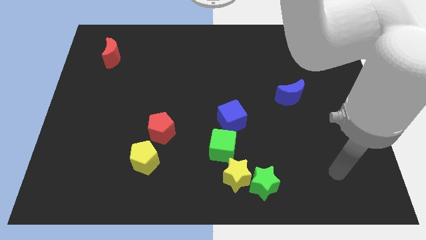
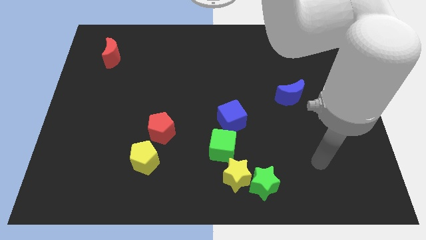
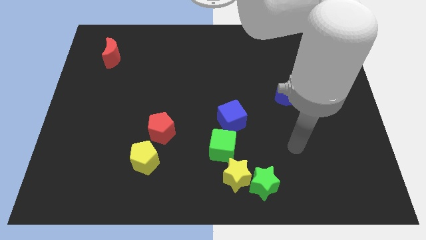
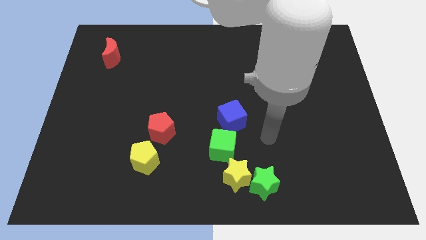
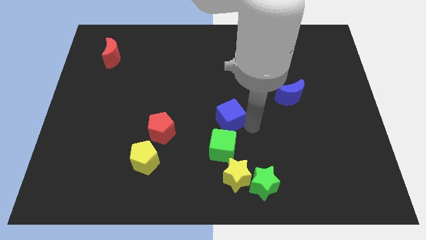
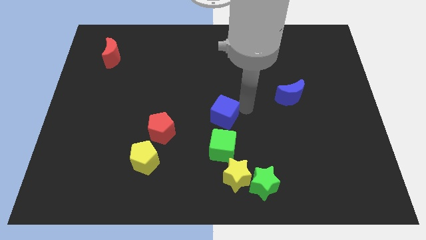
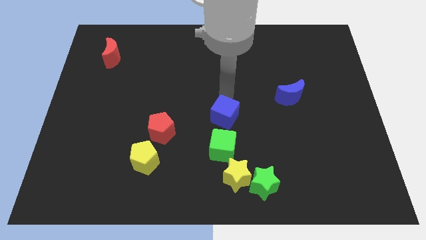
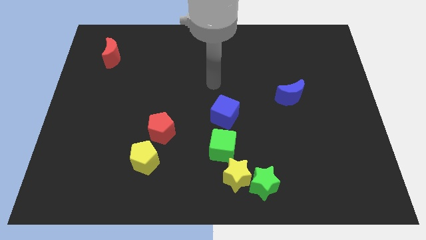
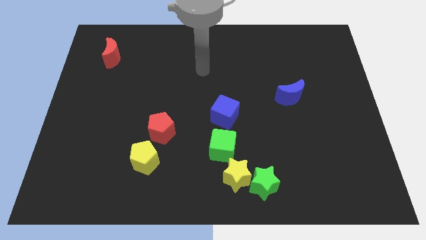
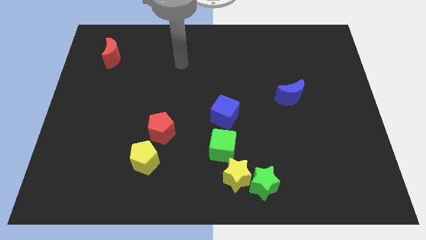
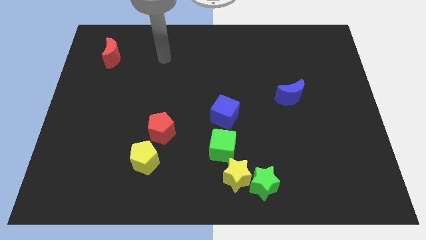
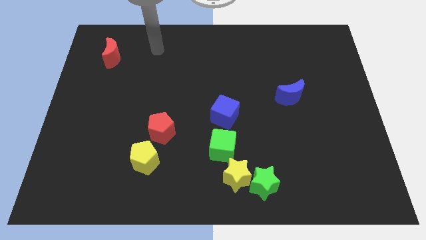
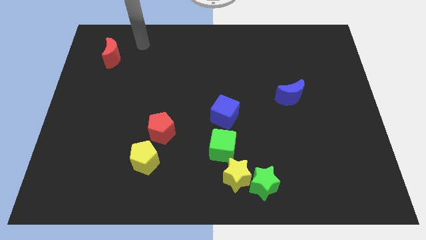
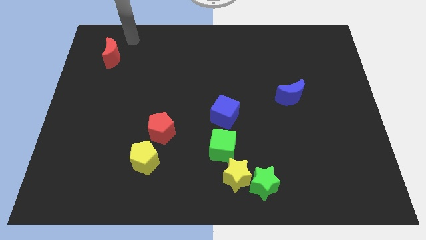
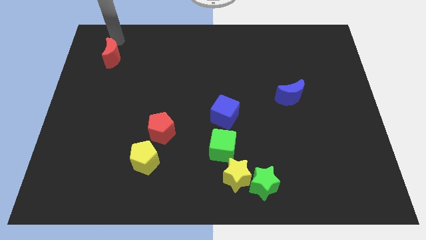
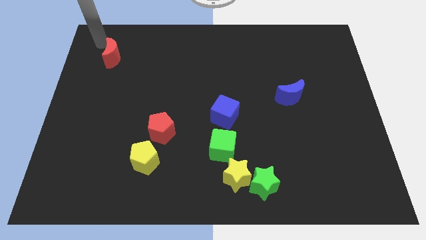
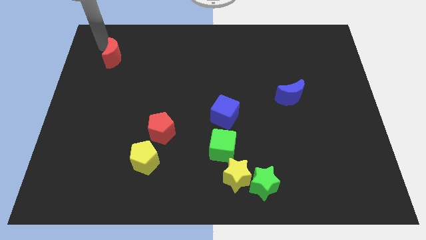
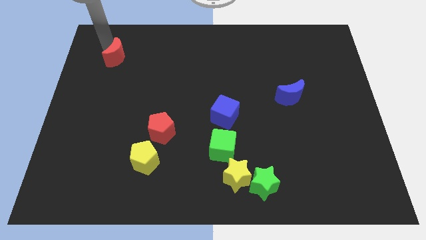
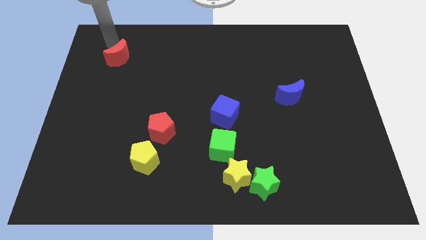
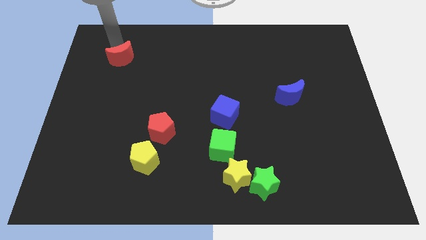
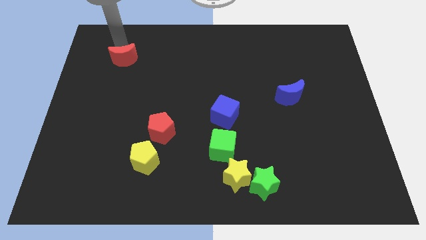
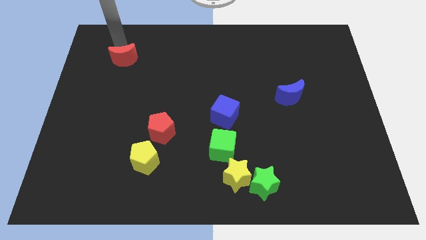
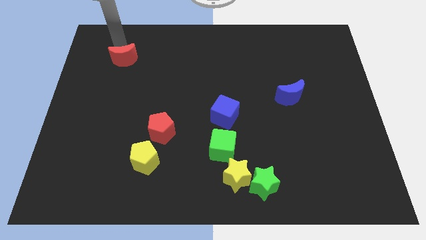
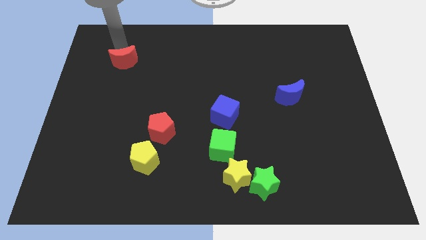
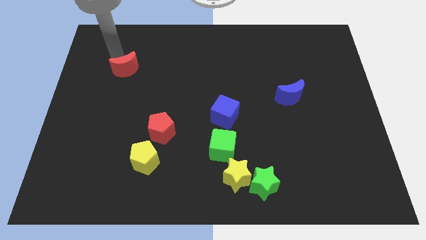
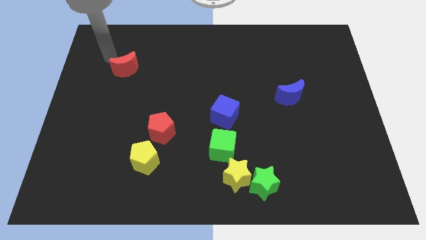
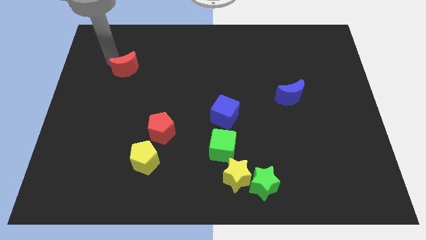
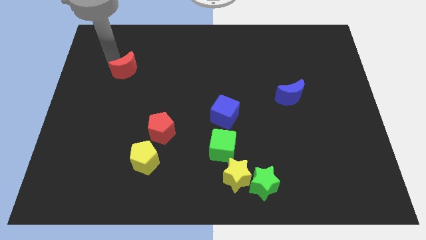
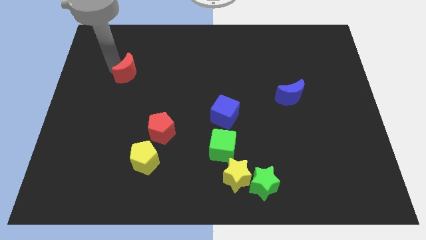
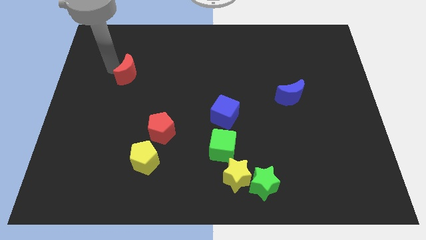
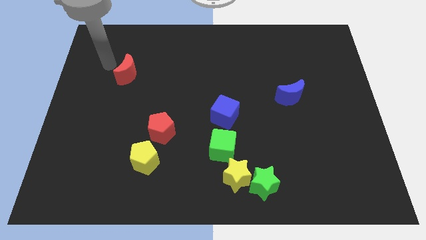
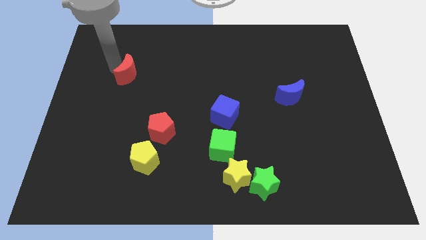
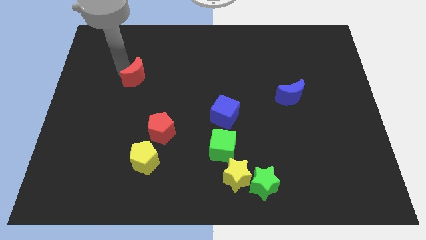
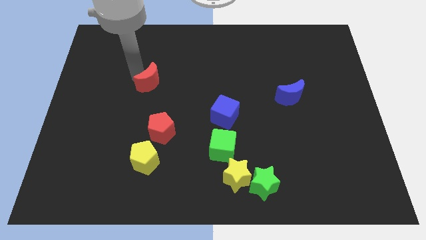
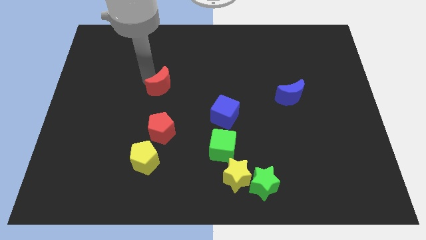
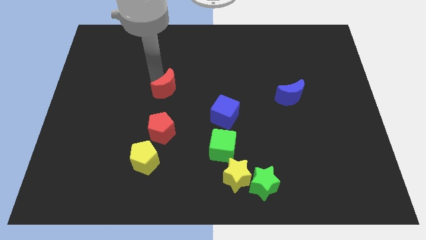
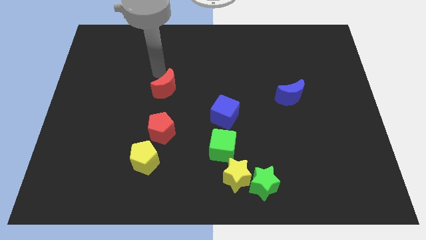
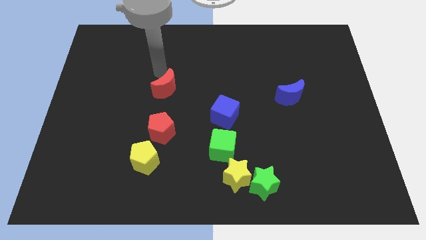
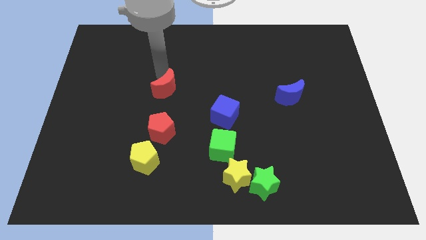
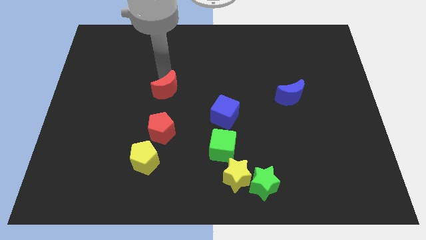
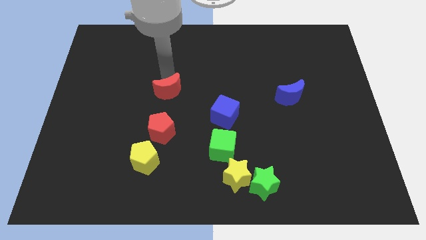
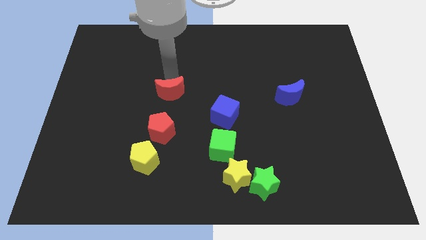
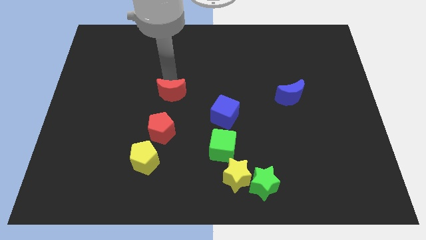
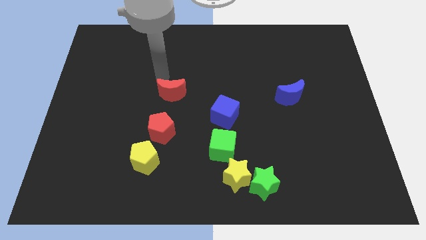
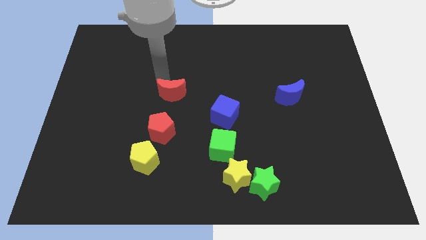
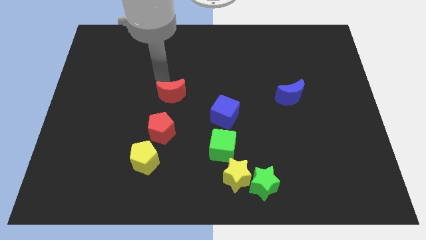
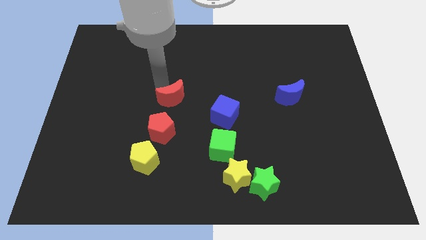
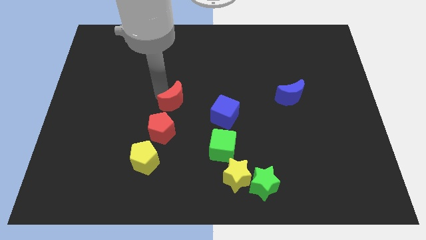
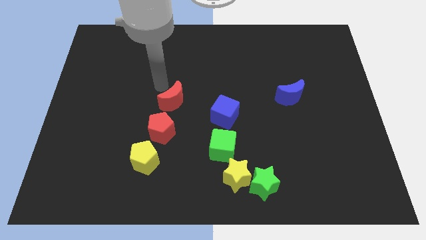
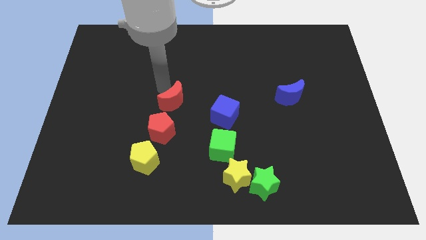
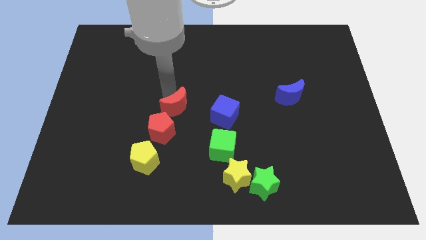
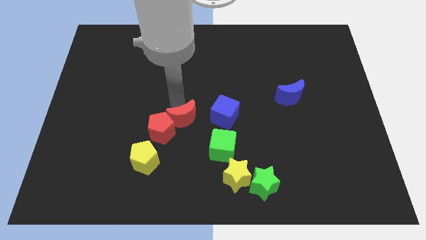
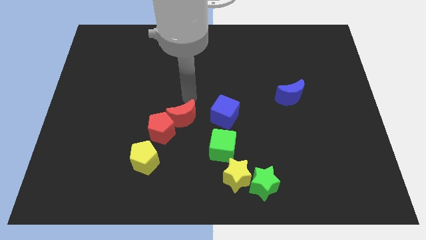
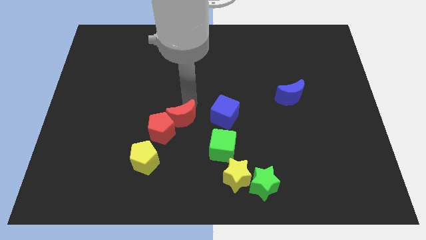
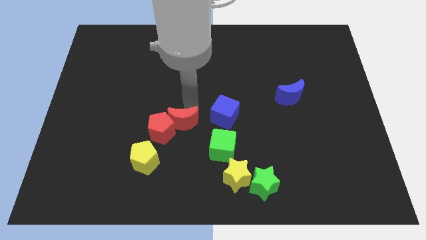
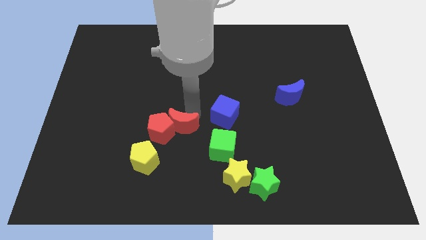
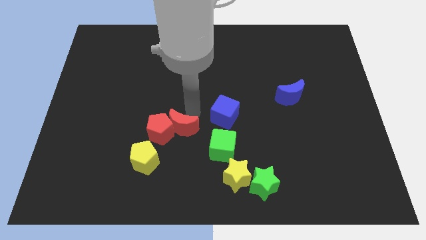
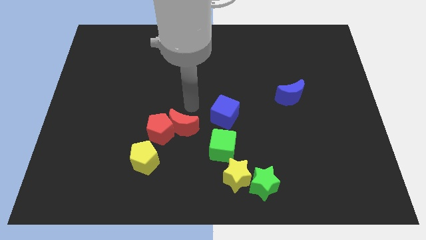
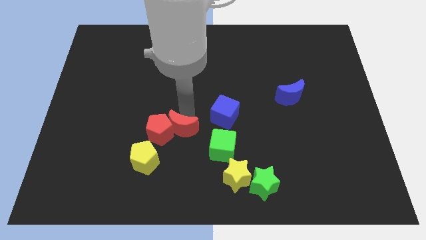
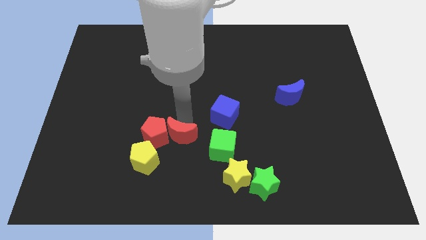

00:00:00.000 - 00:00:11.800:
move the red moon just left of the green cube

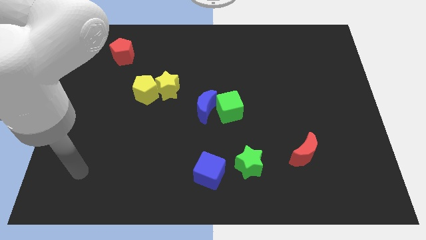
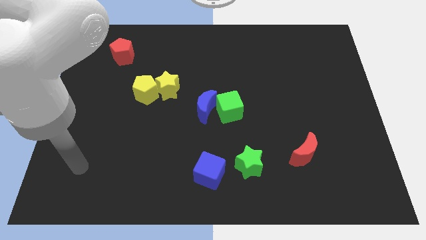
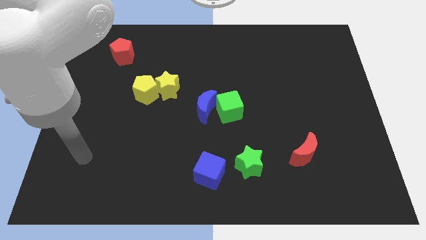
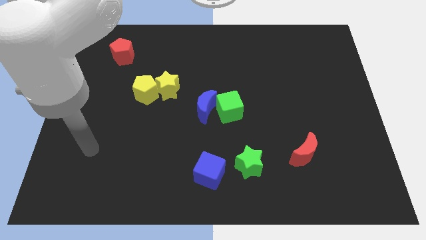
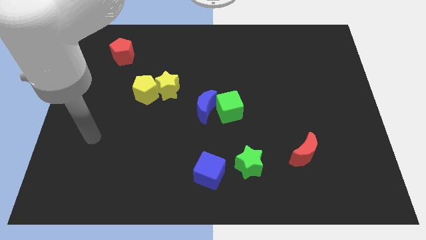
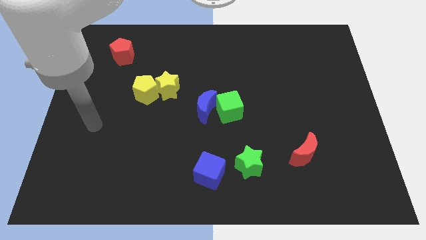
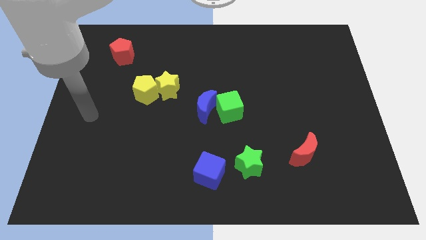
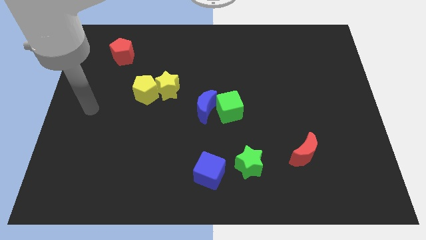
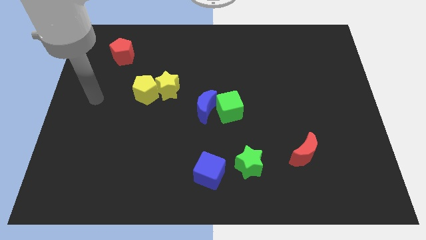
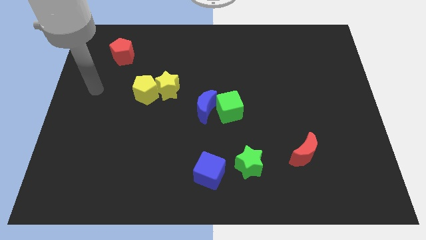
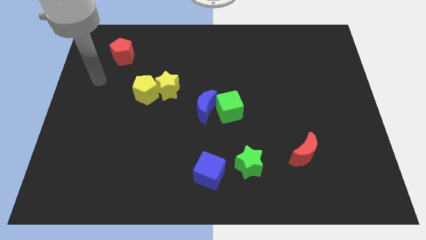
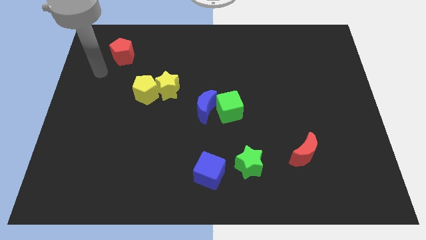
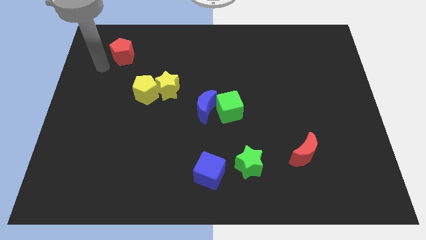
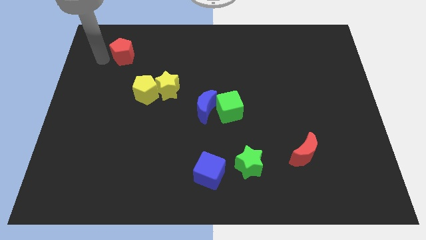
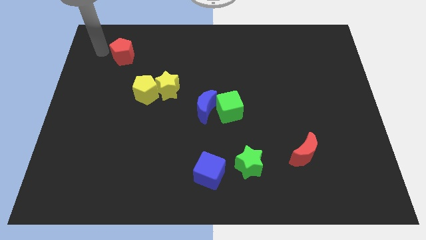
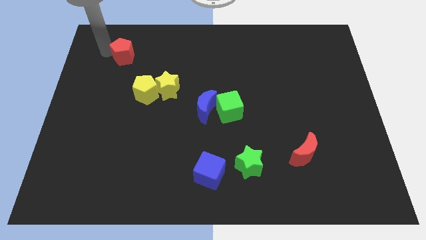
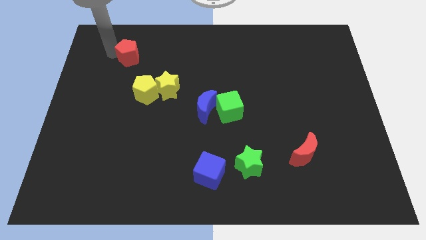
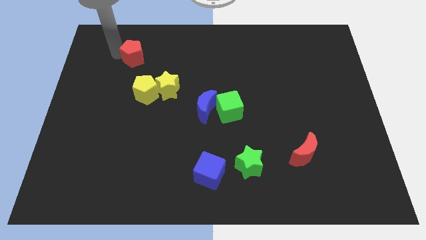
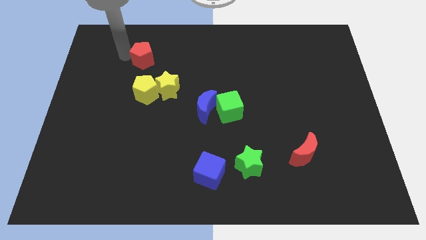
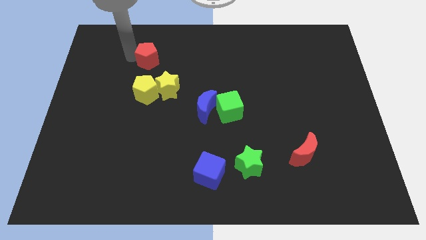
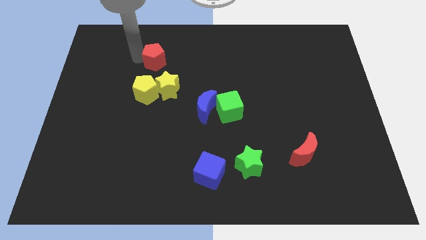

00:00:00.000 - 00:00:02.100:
put the red pentagon above the yellow star
